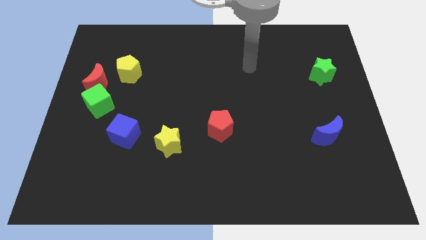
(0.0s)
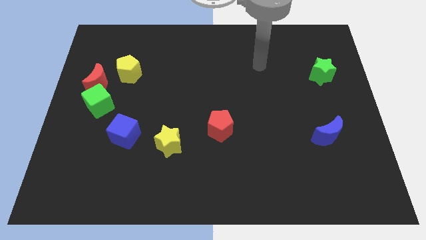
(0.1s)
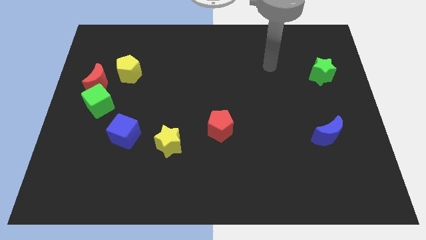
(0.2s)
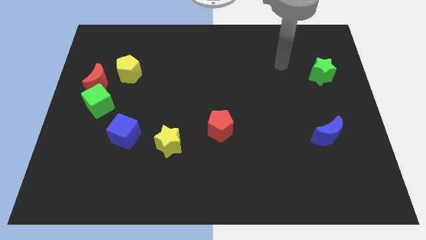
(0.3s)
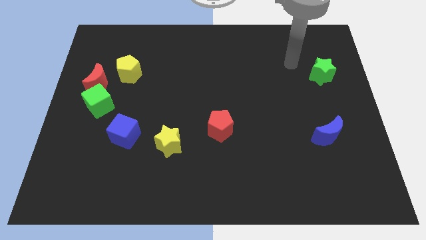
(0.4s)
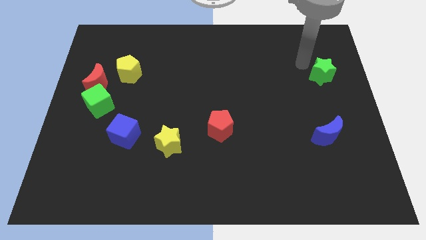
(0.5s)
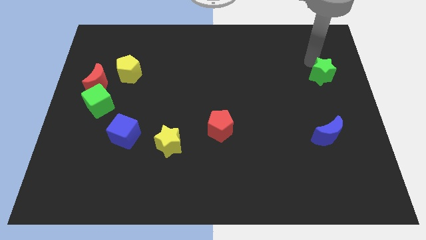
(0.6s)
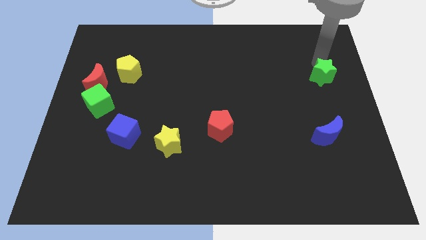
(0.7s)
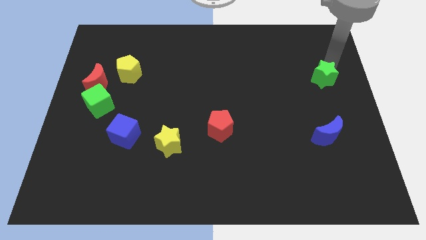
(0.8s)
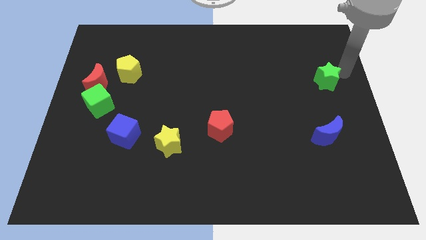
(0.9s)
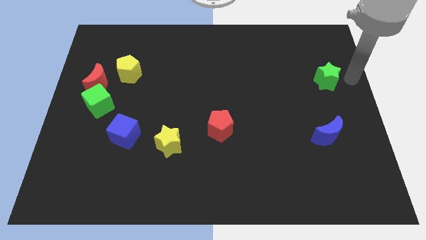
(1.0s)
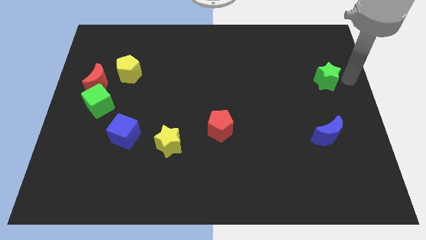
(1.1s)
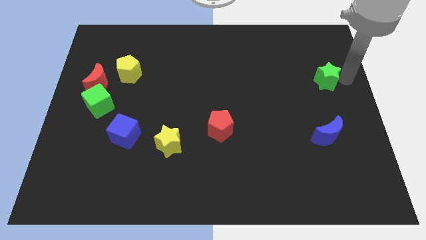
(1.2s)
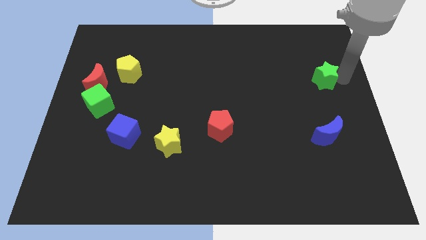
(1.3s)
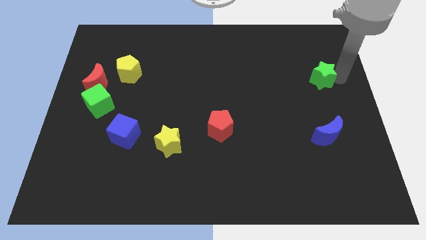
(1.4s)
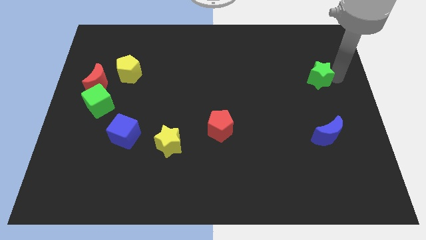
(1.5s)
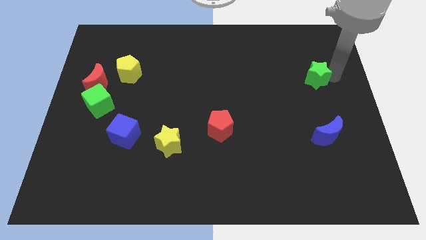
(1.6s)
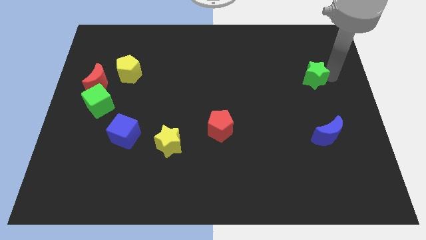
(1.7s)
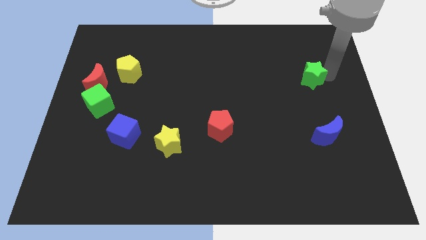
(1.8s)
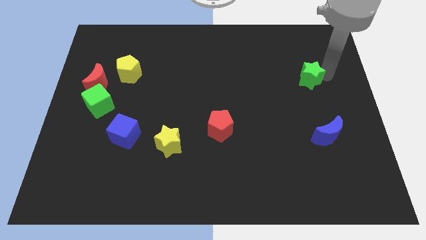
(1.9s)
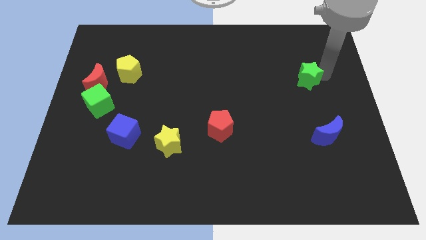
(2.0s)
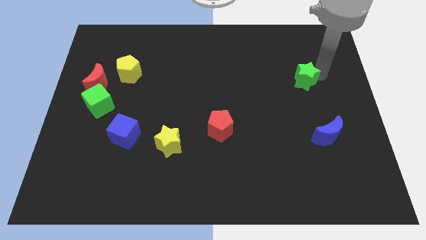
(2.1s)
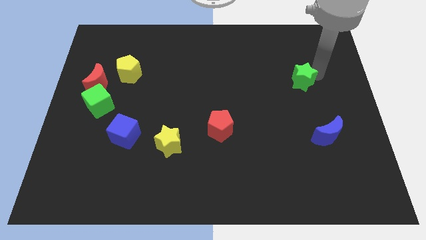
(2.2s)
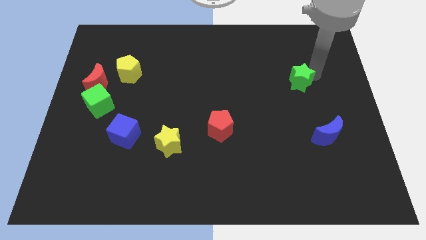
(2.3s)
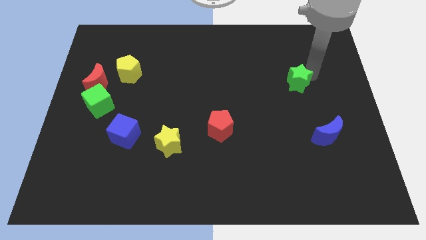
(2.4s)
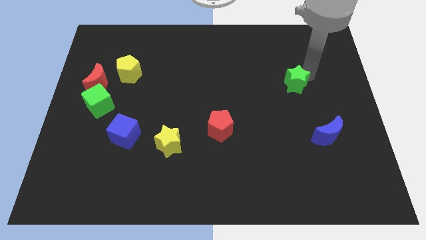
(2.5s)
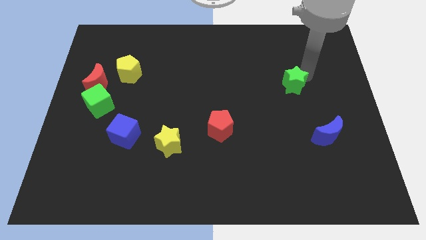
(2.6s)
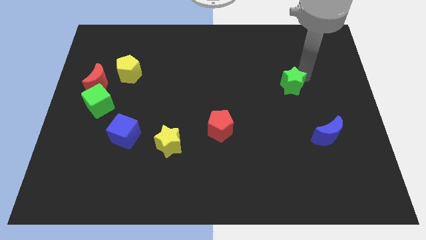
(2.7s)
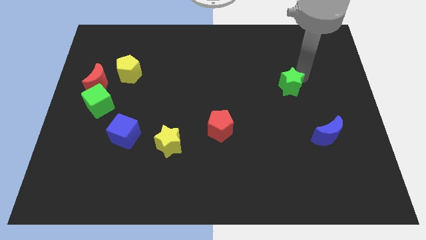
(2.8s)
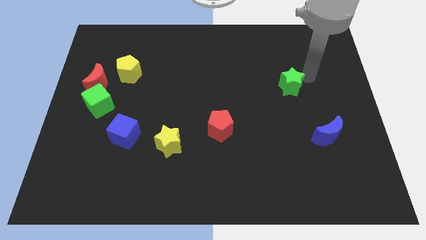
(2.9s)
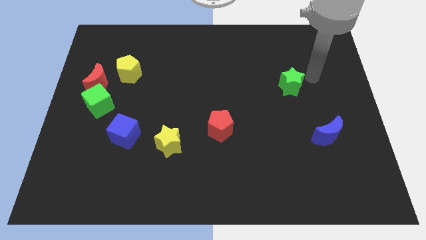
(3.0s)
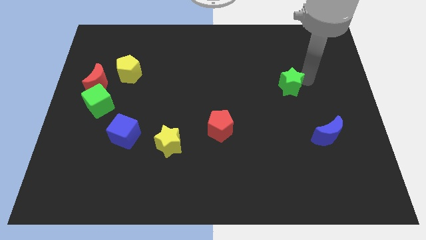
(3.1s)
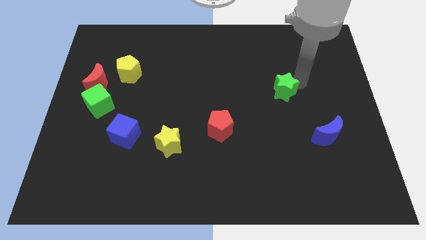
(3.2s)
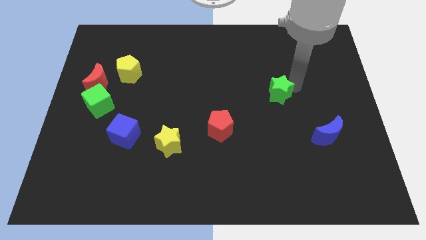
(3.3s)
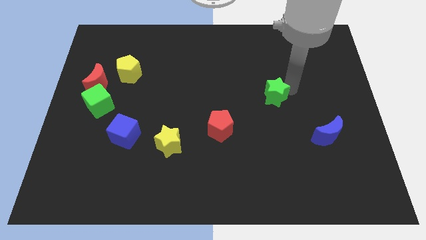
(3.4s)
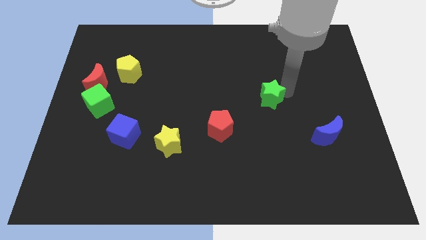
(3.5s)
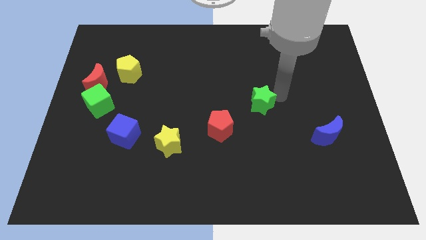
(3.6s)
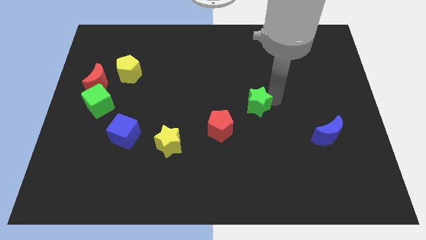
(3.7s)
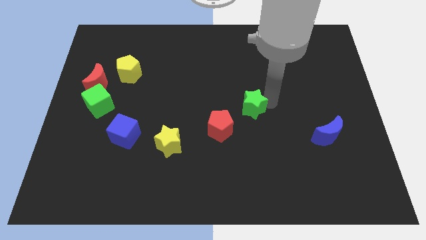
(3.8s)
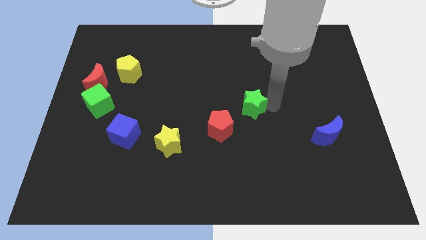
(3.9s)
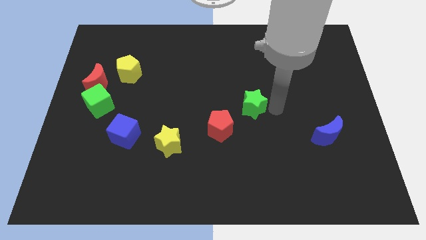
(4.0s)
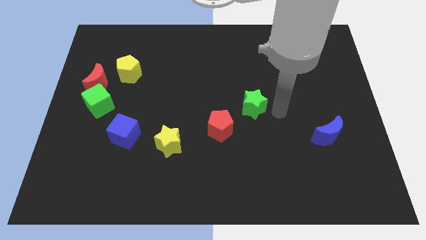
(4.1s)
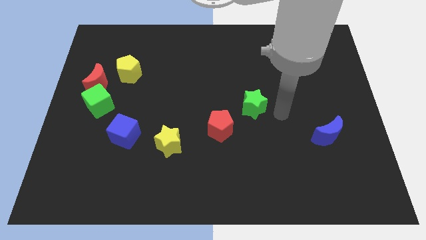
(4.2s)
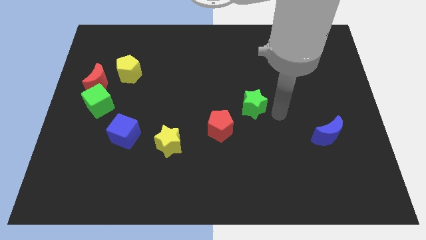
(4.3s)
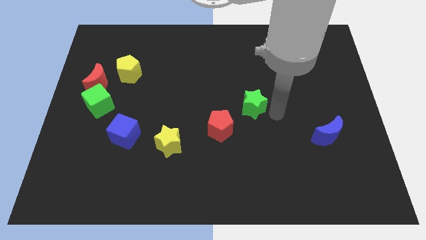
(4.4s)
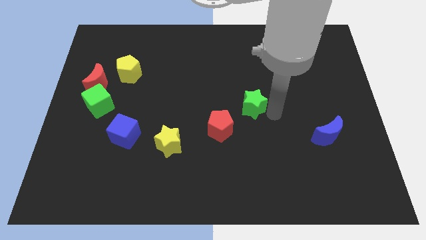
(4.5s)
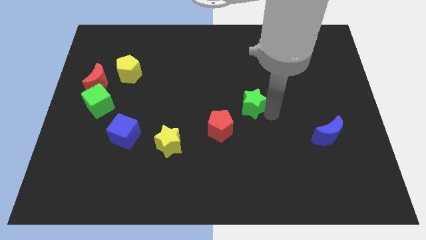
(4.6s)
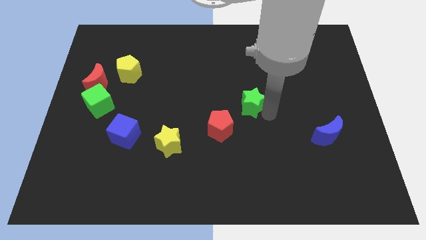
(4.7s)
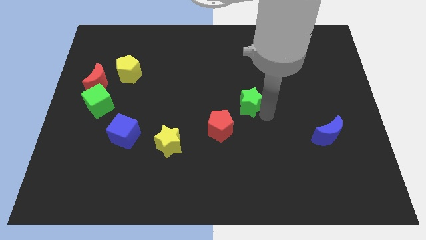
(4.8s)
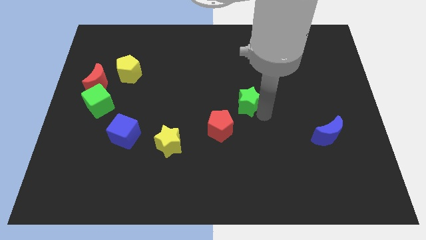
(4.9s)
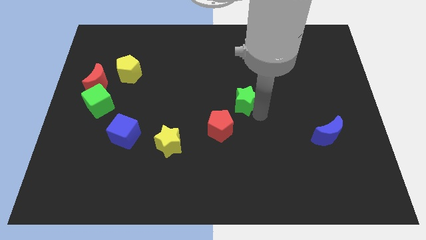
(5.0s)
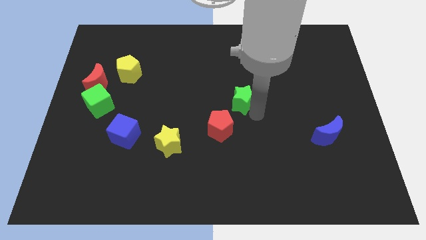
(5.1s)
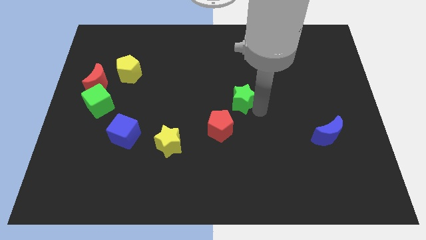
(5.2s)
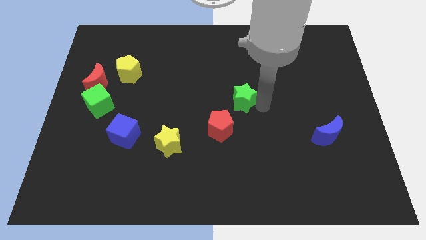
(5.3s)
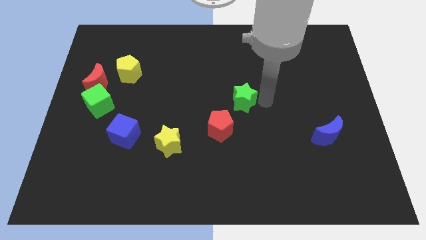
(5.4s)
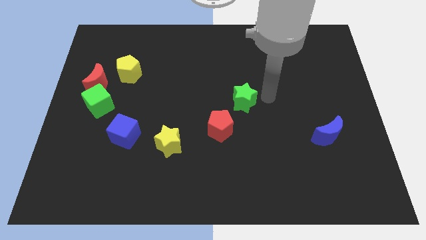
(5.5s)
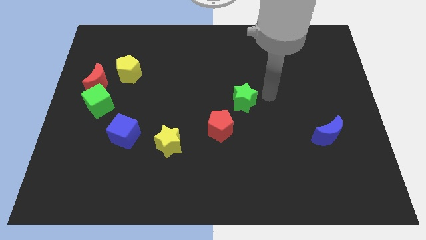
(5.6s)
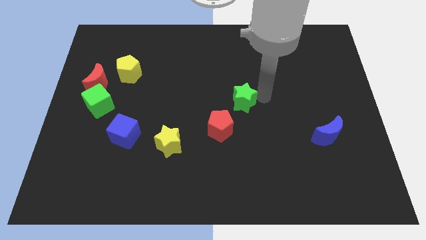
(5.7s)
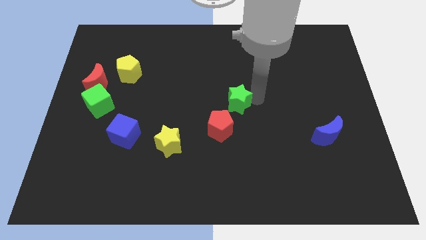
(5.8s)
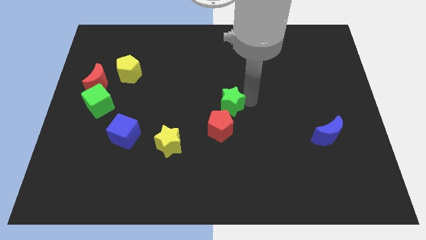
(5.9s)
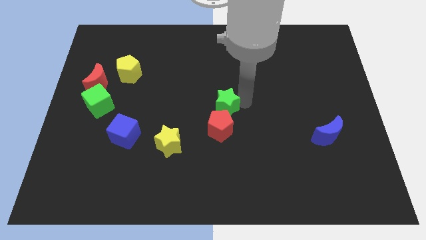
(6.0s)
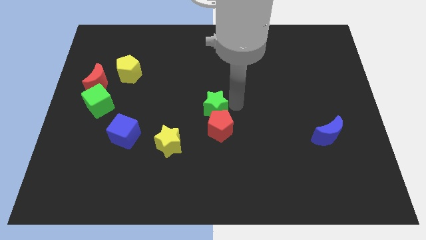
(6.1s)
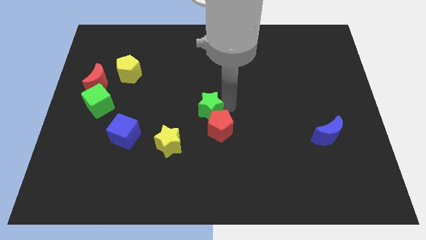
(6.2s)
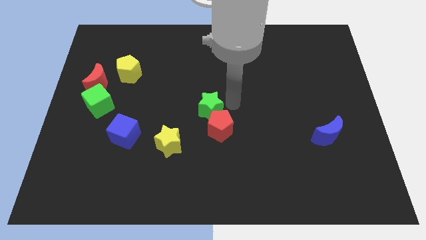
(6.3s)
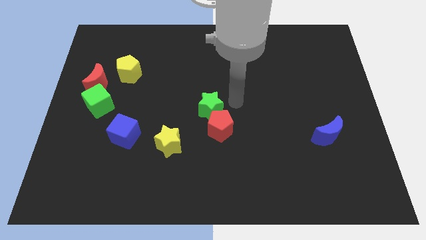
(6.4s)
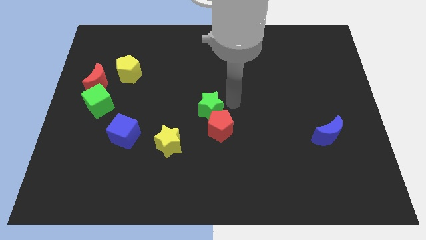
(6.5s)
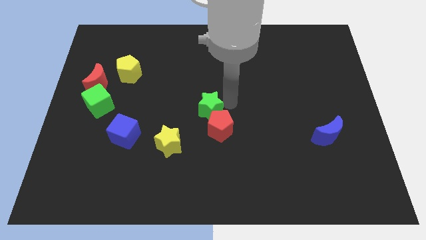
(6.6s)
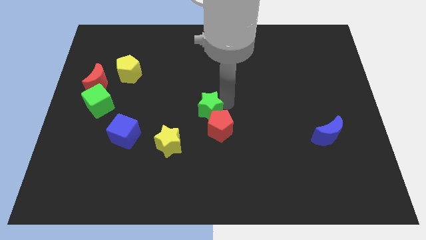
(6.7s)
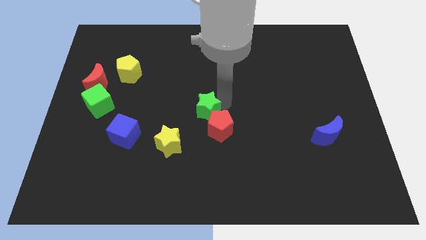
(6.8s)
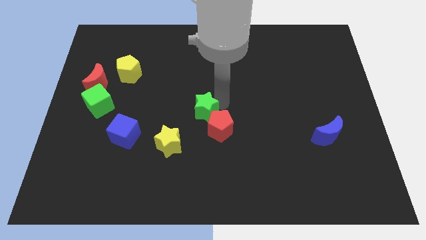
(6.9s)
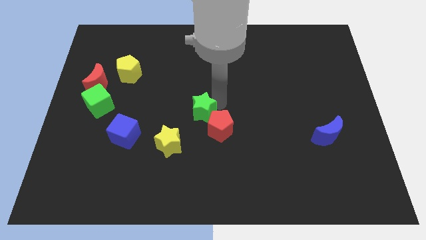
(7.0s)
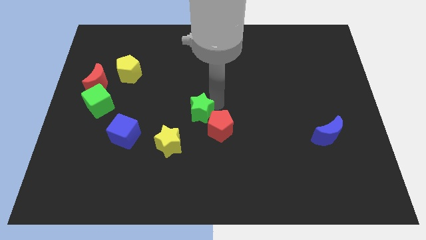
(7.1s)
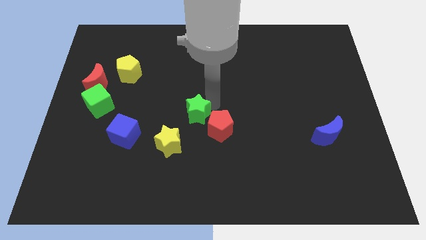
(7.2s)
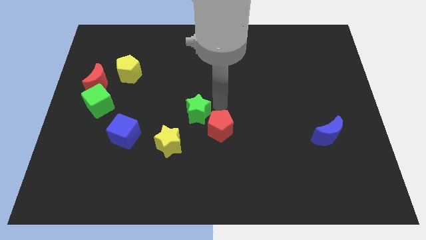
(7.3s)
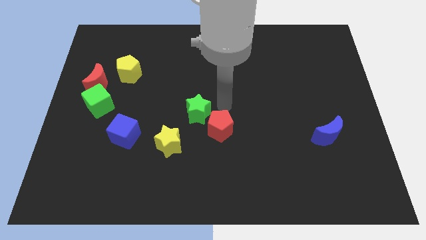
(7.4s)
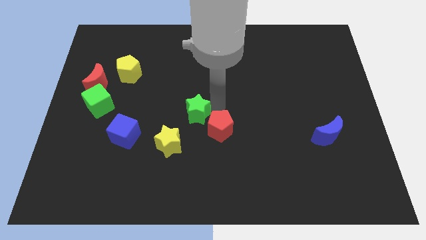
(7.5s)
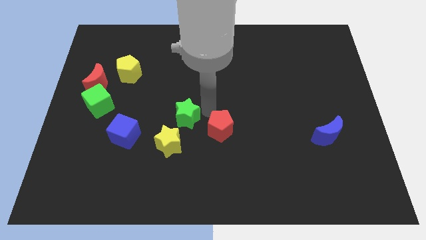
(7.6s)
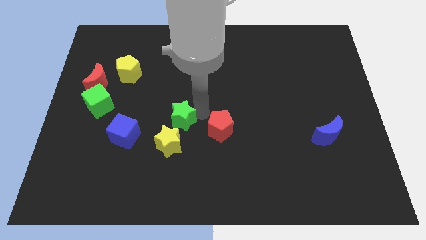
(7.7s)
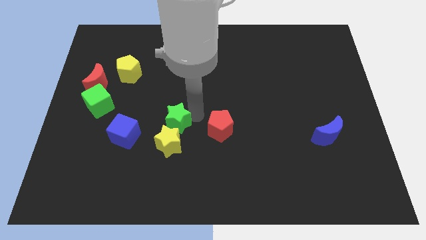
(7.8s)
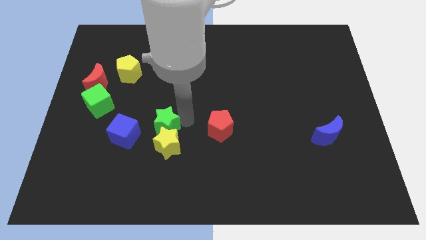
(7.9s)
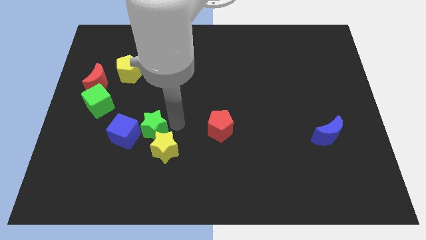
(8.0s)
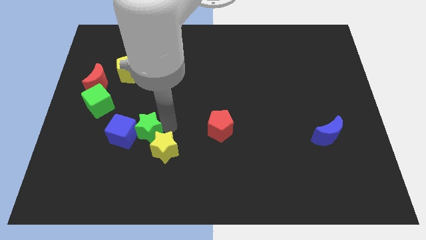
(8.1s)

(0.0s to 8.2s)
slide the green star close to the blue cube
